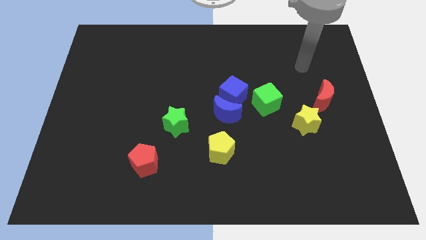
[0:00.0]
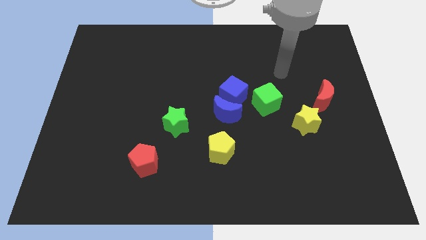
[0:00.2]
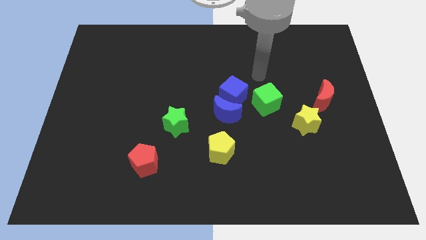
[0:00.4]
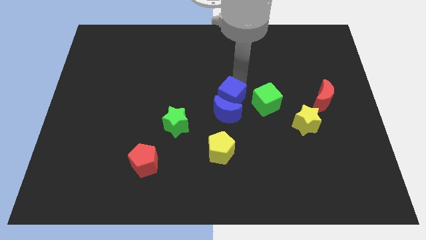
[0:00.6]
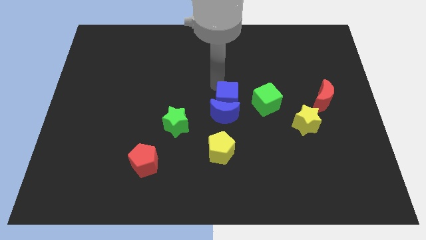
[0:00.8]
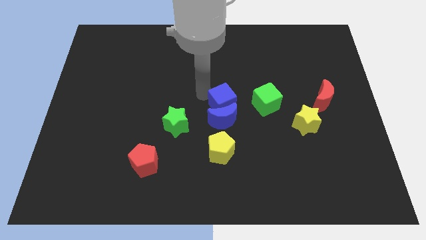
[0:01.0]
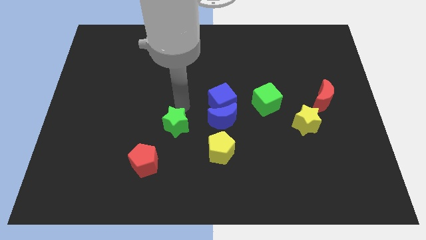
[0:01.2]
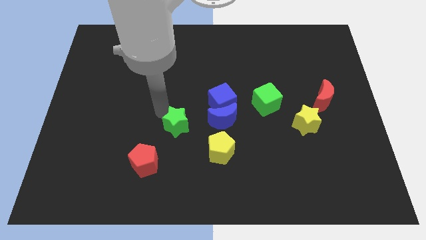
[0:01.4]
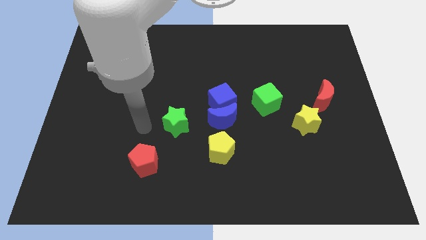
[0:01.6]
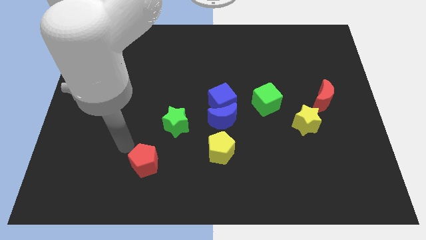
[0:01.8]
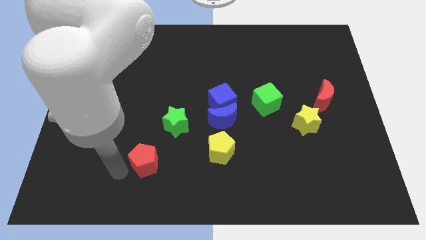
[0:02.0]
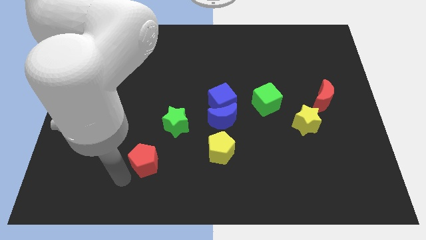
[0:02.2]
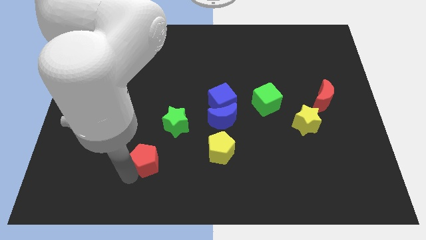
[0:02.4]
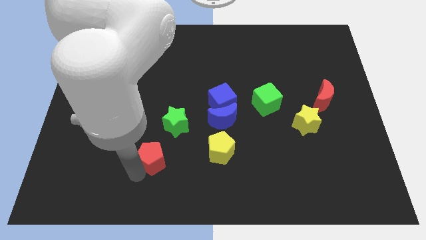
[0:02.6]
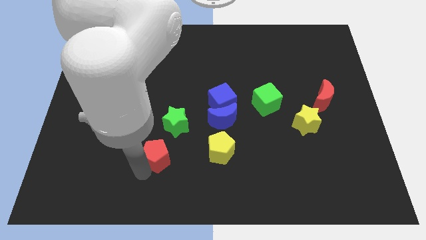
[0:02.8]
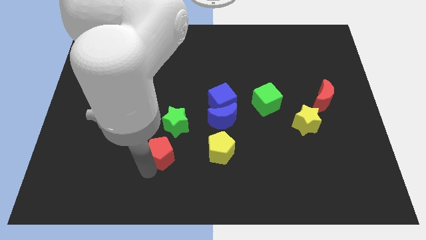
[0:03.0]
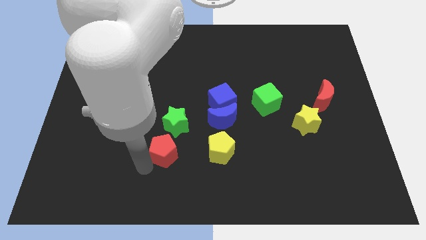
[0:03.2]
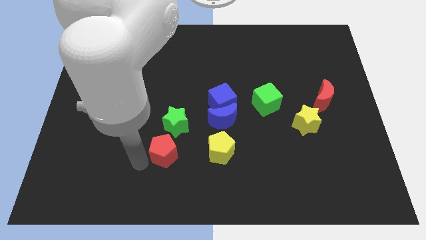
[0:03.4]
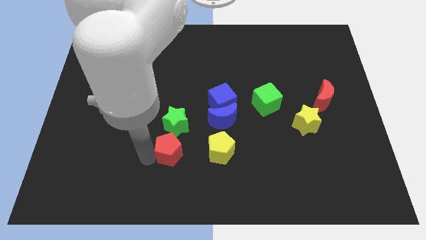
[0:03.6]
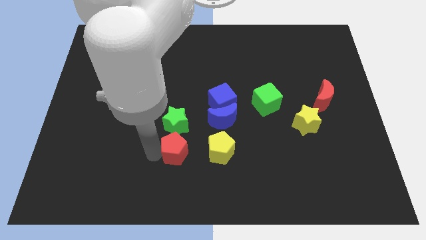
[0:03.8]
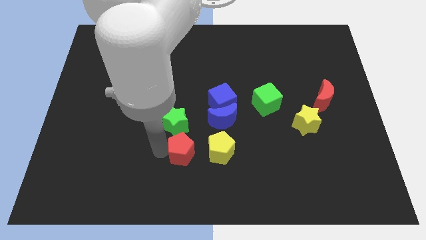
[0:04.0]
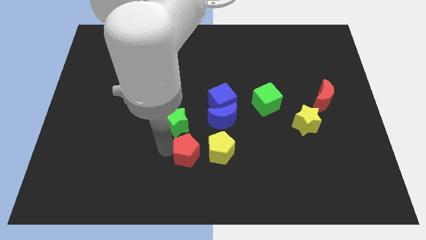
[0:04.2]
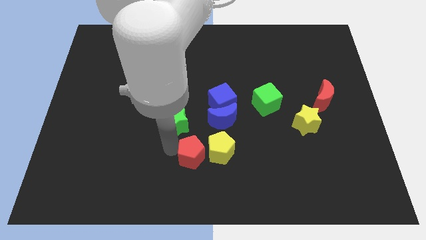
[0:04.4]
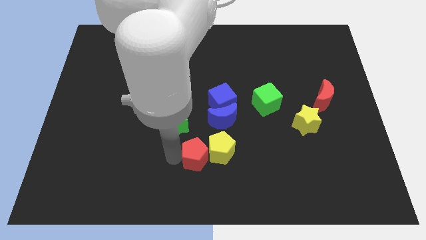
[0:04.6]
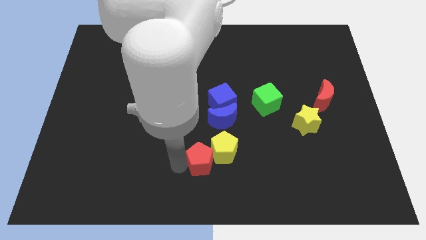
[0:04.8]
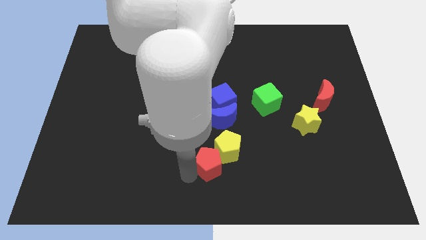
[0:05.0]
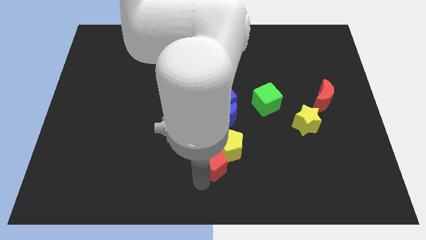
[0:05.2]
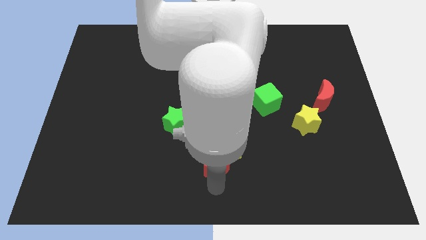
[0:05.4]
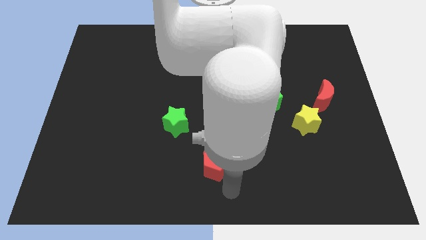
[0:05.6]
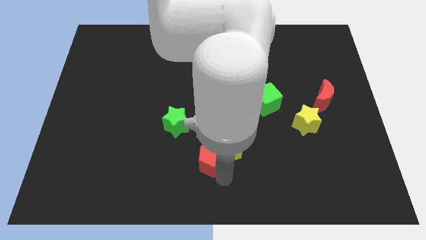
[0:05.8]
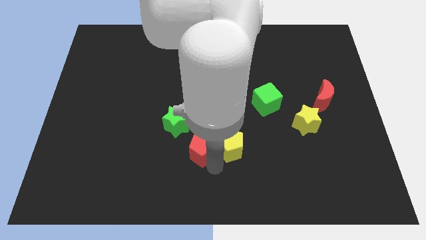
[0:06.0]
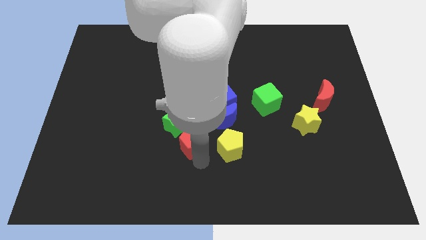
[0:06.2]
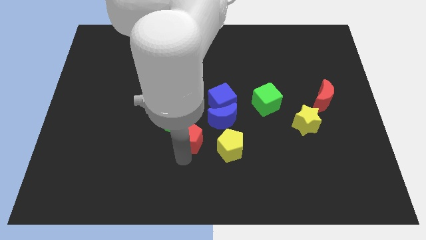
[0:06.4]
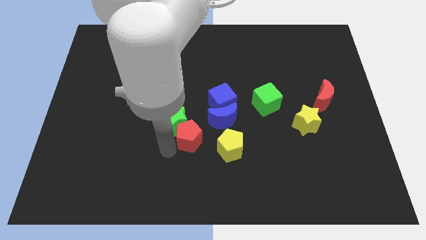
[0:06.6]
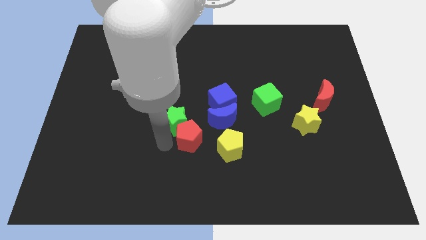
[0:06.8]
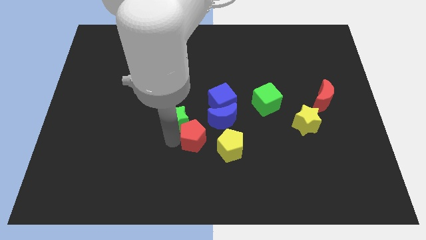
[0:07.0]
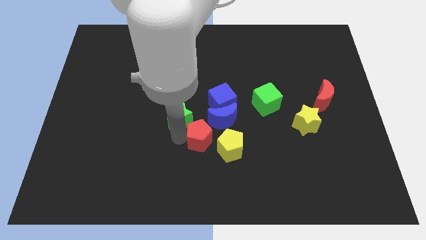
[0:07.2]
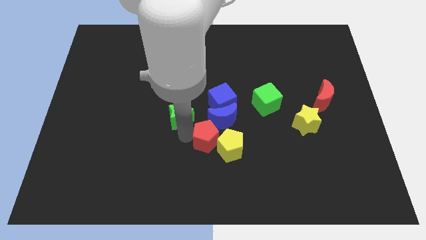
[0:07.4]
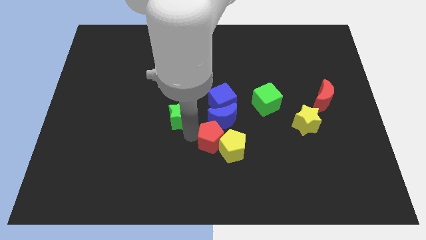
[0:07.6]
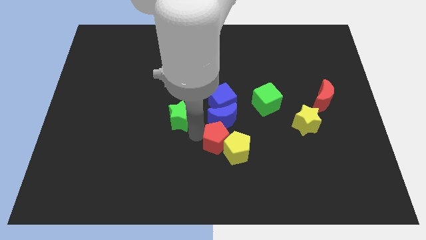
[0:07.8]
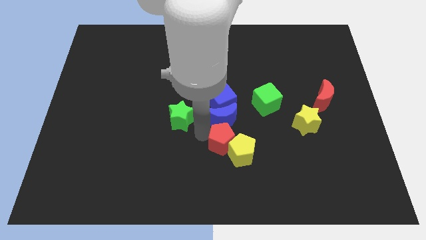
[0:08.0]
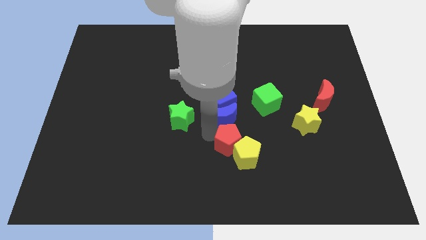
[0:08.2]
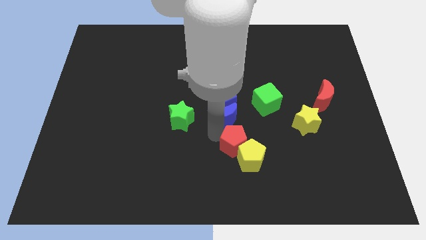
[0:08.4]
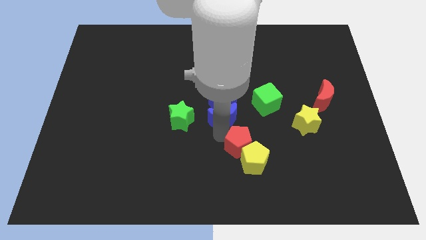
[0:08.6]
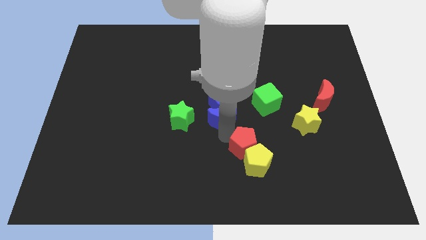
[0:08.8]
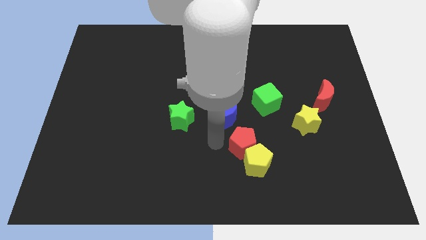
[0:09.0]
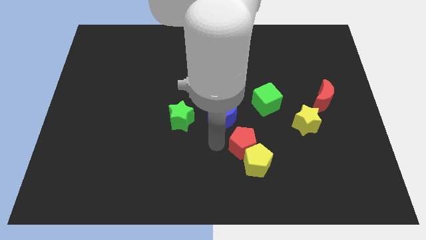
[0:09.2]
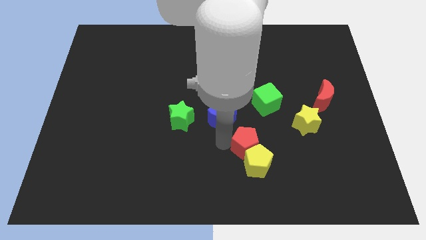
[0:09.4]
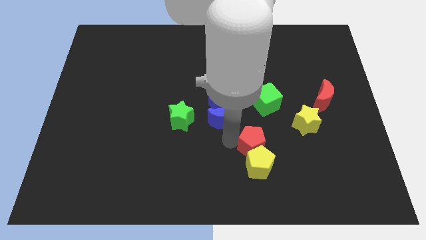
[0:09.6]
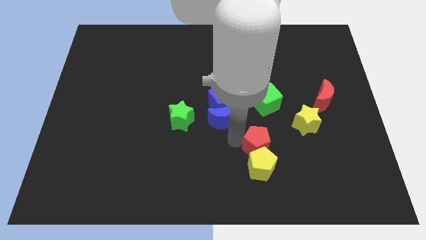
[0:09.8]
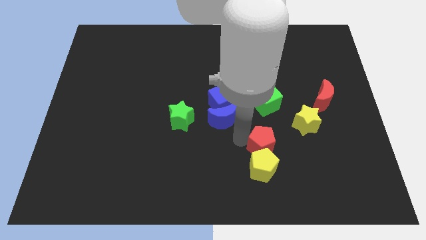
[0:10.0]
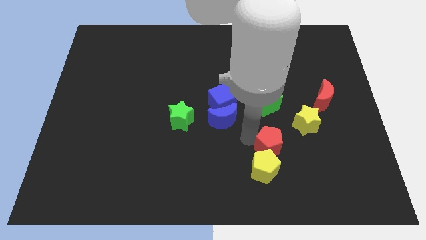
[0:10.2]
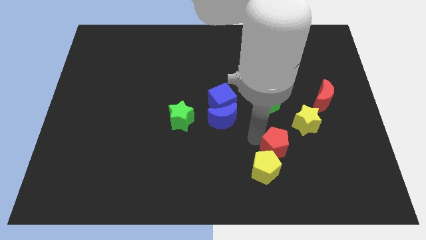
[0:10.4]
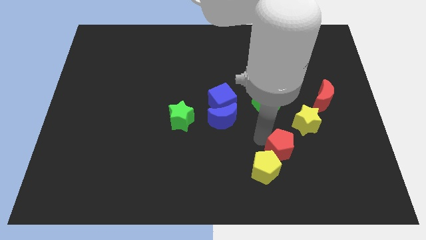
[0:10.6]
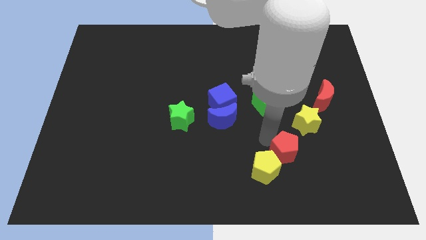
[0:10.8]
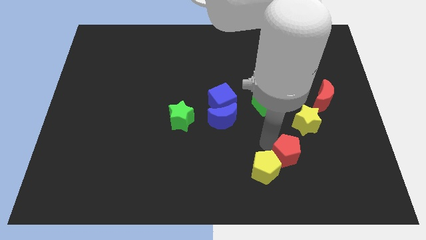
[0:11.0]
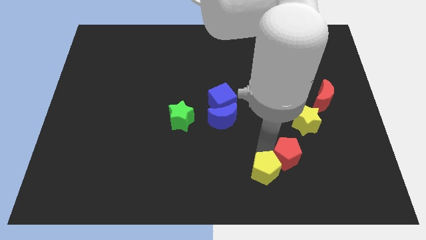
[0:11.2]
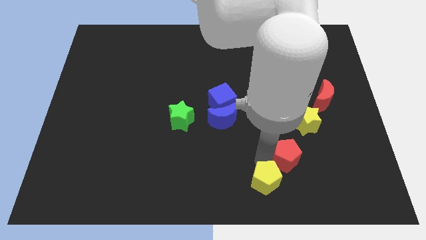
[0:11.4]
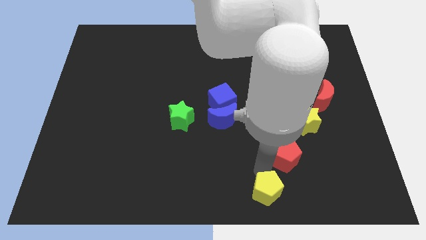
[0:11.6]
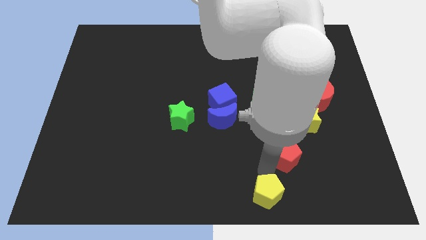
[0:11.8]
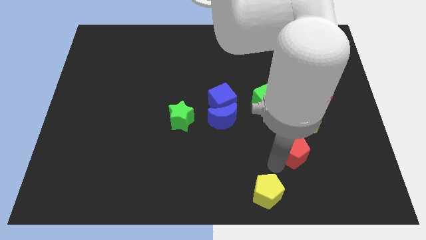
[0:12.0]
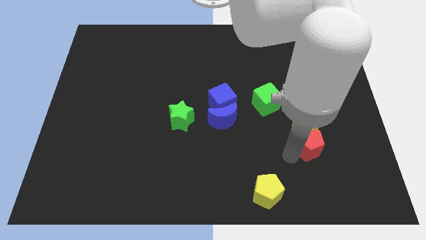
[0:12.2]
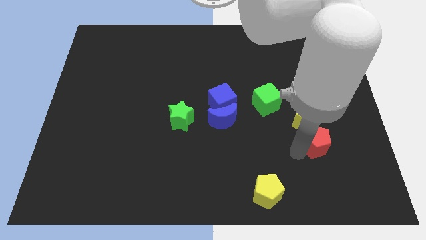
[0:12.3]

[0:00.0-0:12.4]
slide the red pentagon to the bottom side of the red moon

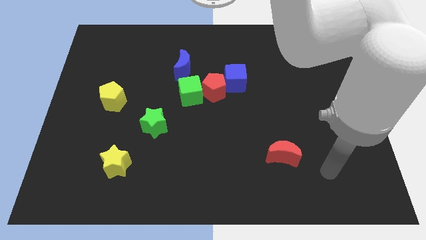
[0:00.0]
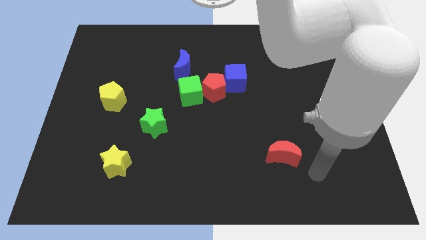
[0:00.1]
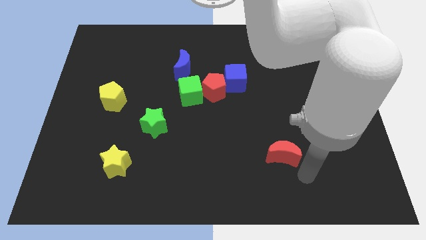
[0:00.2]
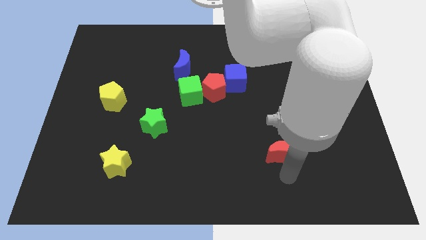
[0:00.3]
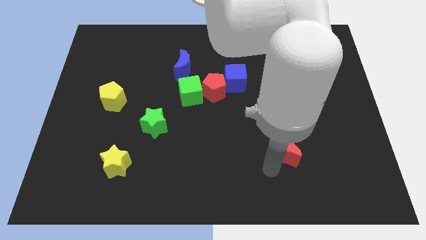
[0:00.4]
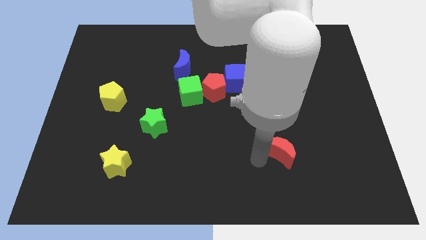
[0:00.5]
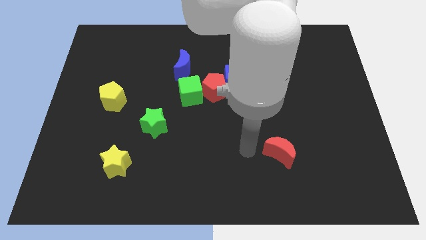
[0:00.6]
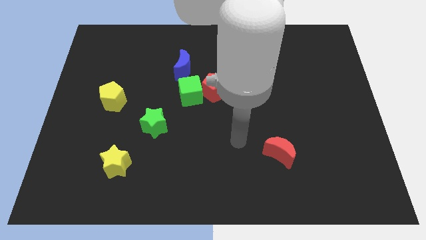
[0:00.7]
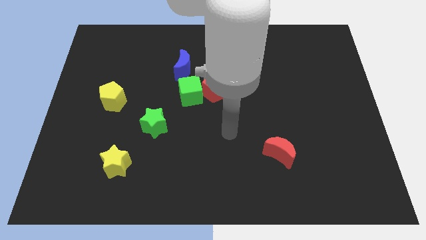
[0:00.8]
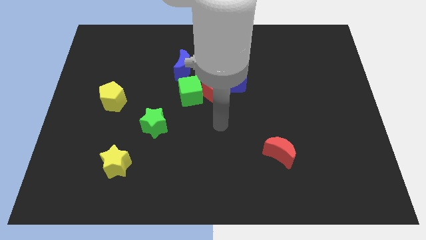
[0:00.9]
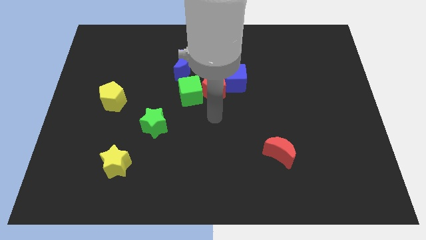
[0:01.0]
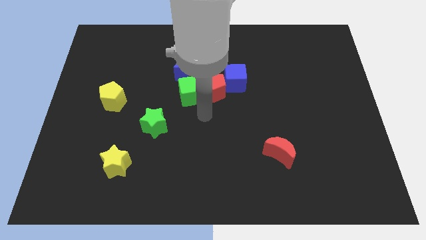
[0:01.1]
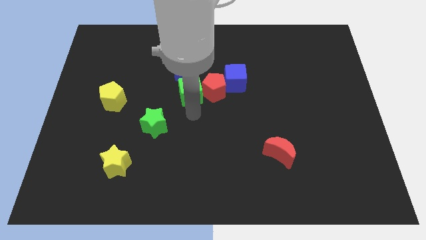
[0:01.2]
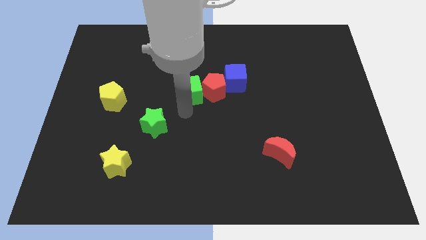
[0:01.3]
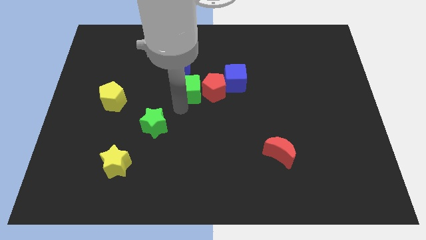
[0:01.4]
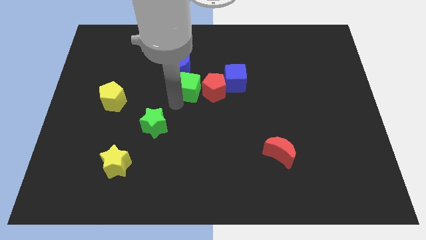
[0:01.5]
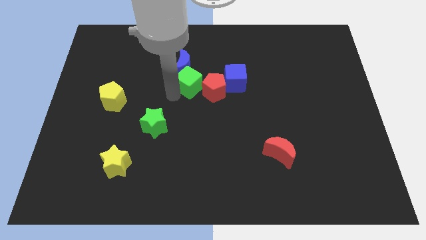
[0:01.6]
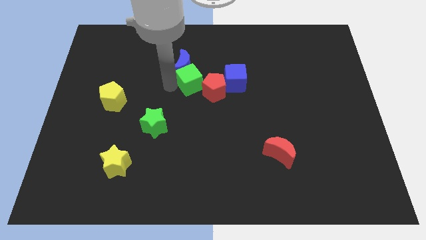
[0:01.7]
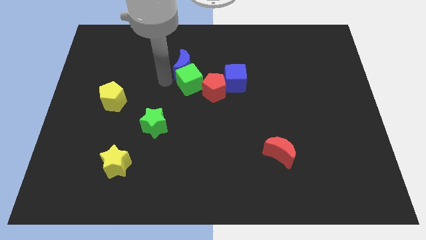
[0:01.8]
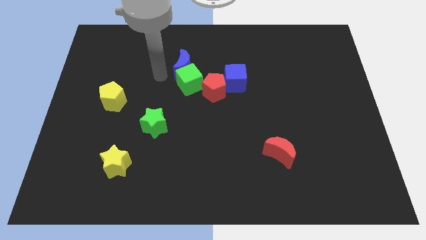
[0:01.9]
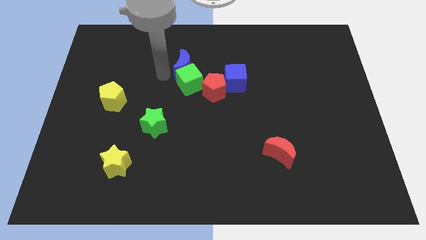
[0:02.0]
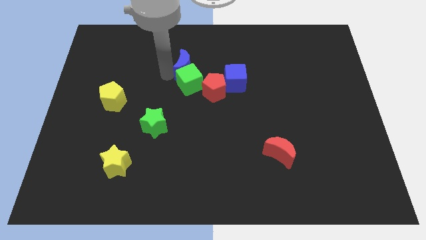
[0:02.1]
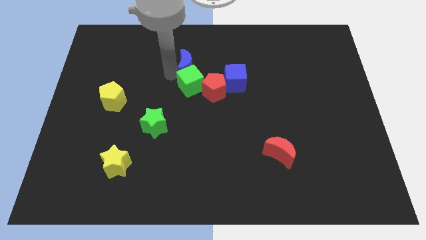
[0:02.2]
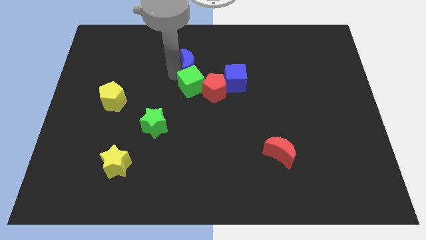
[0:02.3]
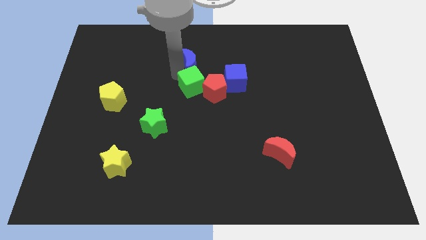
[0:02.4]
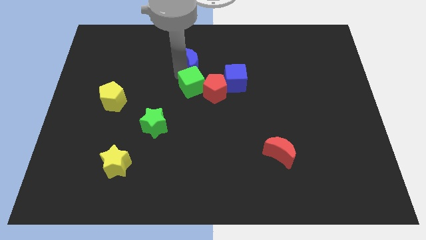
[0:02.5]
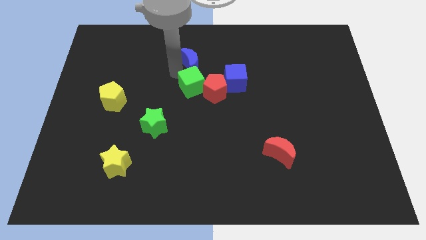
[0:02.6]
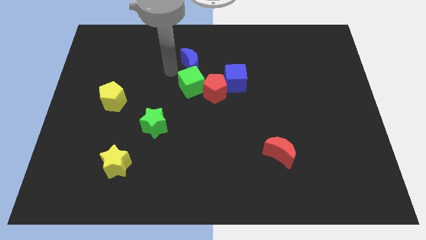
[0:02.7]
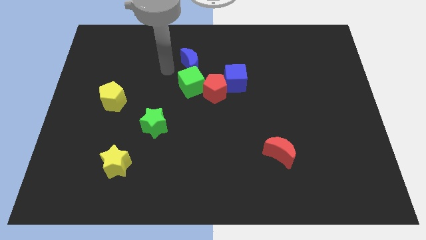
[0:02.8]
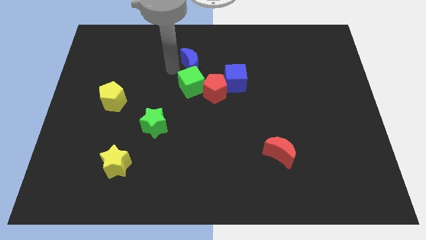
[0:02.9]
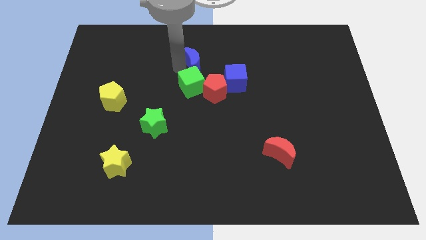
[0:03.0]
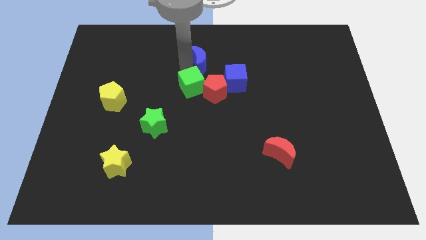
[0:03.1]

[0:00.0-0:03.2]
move the blue moon to the top of the red pentagon
